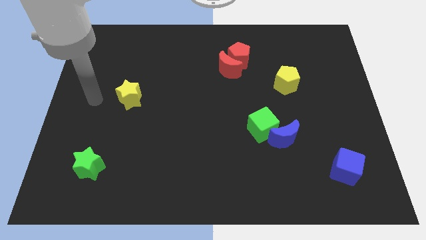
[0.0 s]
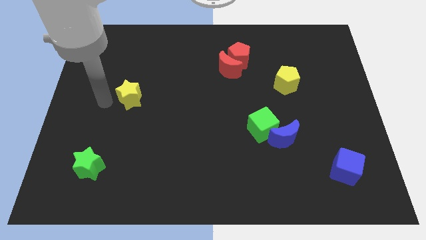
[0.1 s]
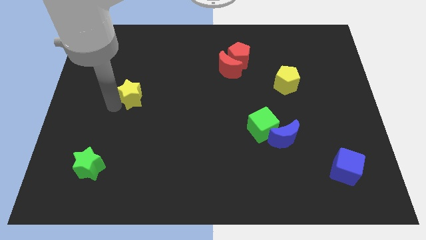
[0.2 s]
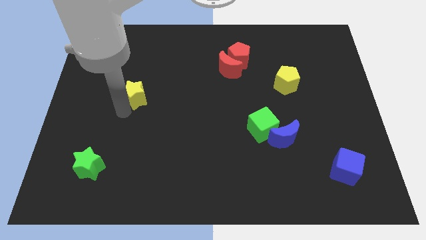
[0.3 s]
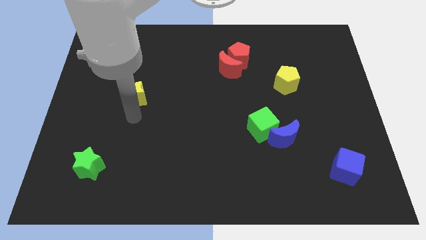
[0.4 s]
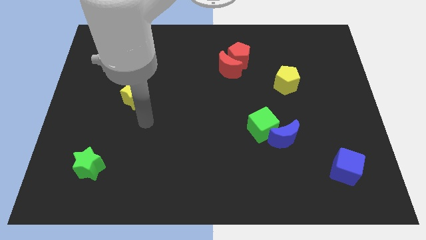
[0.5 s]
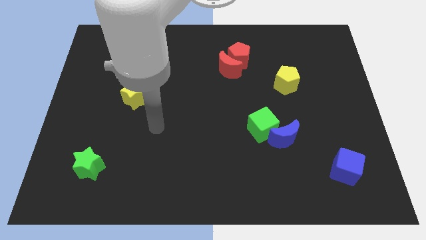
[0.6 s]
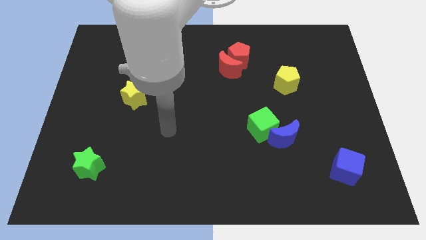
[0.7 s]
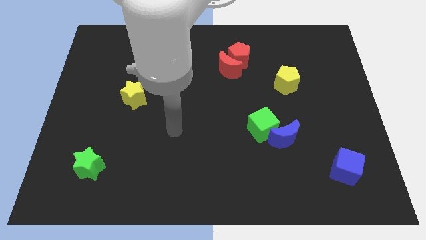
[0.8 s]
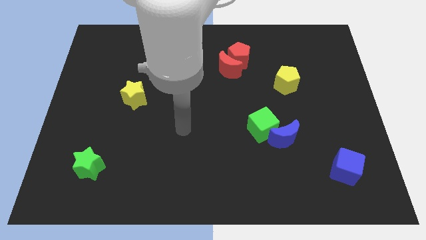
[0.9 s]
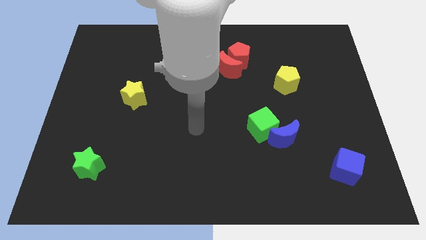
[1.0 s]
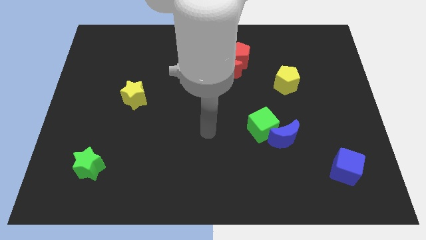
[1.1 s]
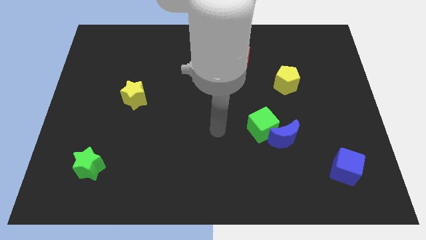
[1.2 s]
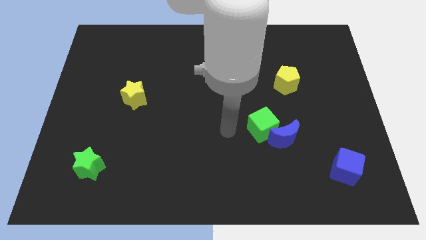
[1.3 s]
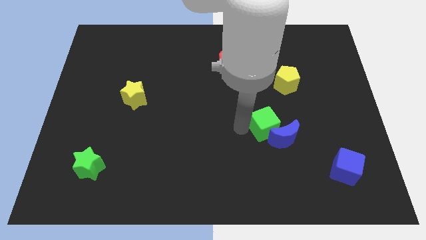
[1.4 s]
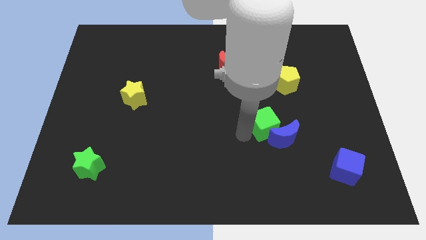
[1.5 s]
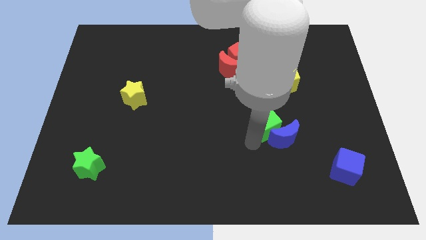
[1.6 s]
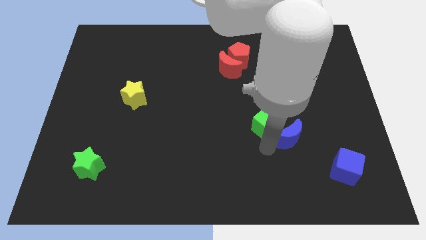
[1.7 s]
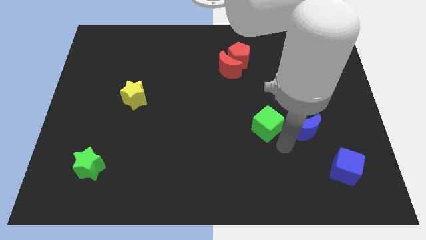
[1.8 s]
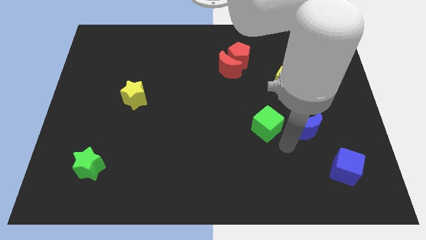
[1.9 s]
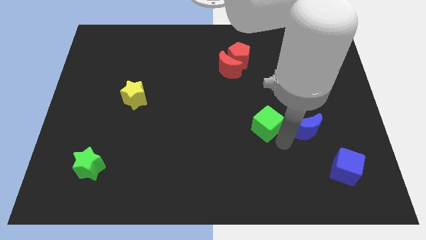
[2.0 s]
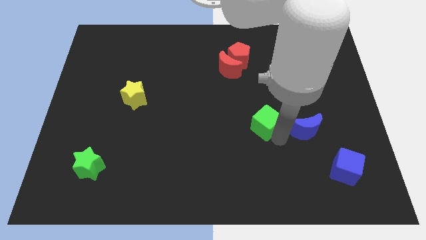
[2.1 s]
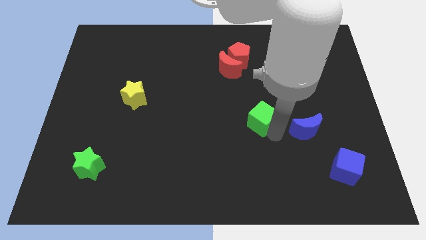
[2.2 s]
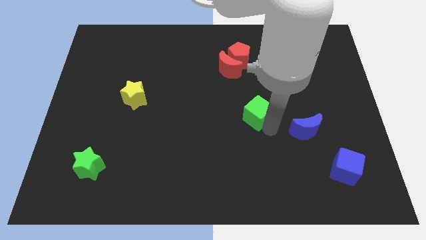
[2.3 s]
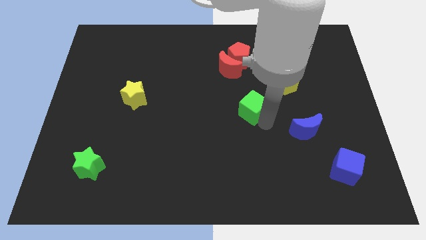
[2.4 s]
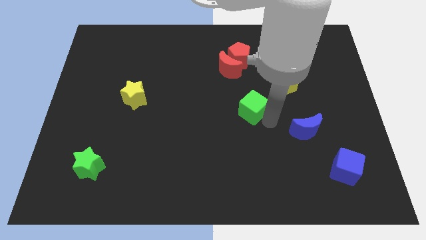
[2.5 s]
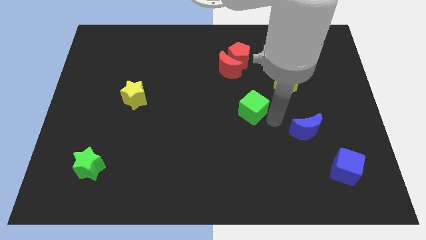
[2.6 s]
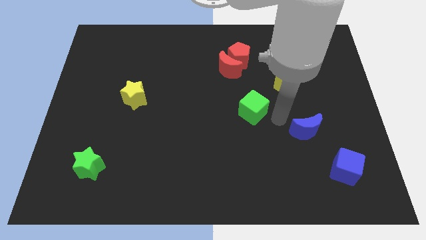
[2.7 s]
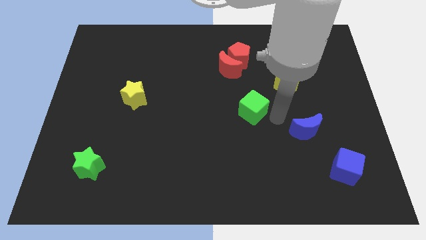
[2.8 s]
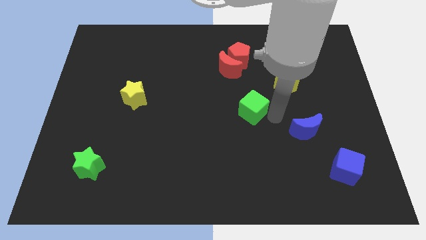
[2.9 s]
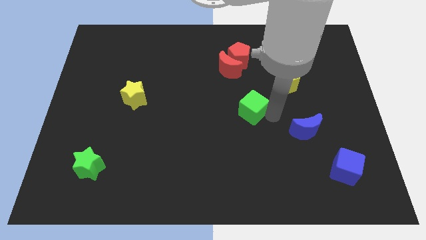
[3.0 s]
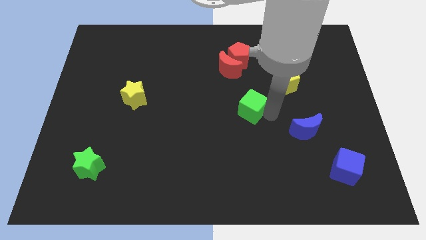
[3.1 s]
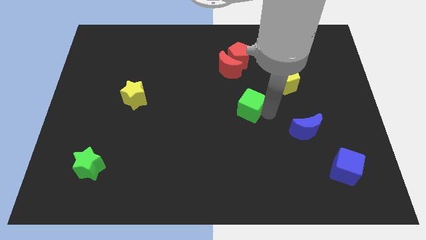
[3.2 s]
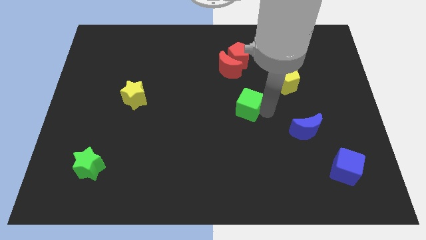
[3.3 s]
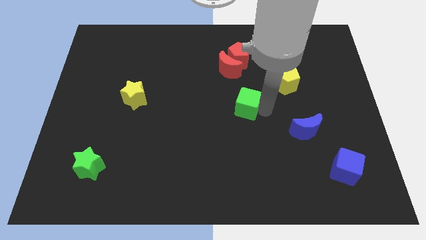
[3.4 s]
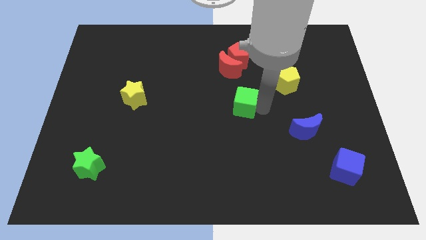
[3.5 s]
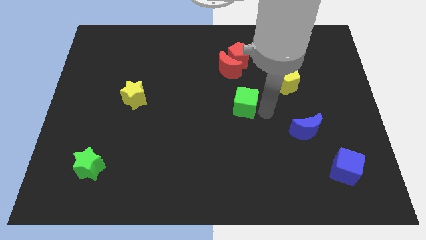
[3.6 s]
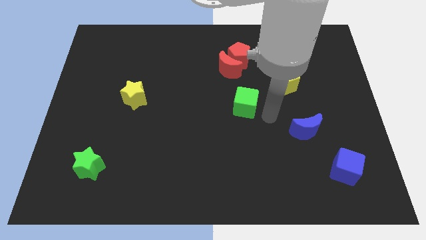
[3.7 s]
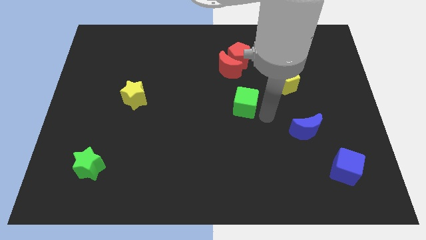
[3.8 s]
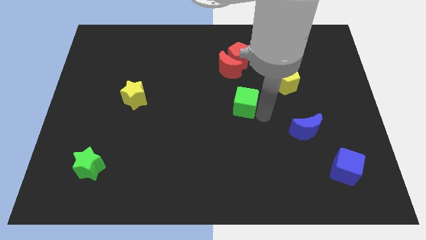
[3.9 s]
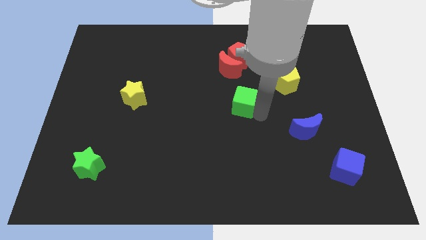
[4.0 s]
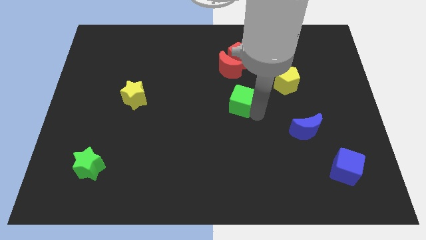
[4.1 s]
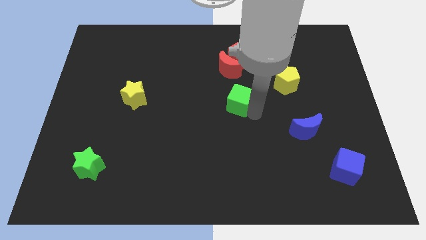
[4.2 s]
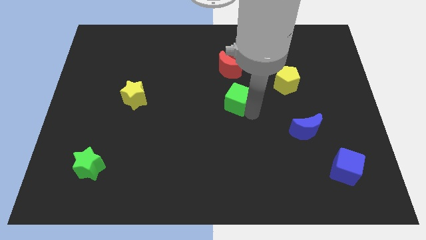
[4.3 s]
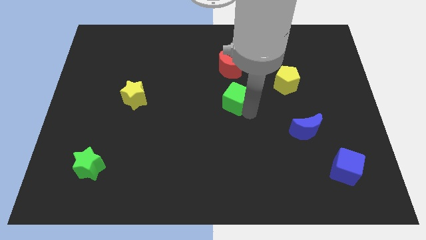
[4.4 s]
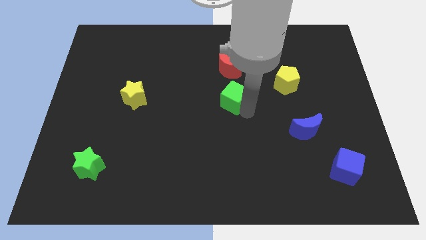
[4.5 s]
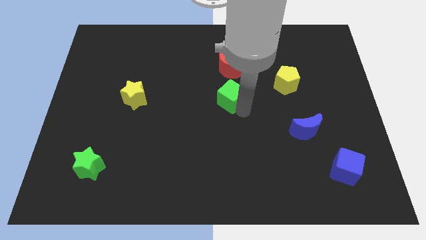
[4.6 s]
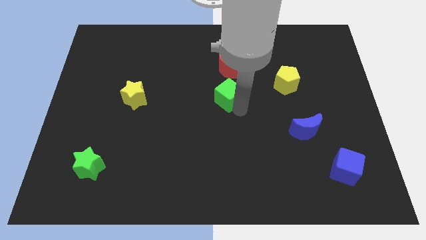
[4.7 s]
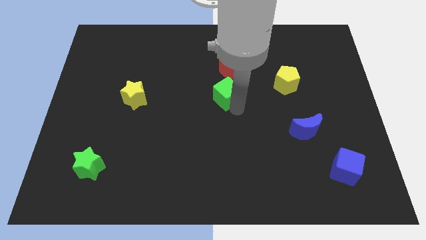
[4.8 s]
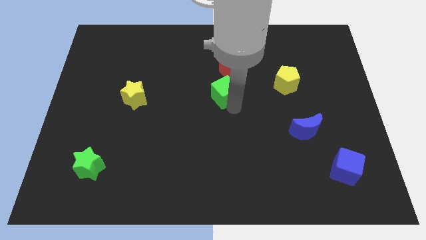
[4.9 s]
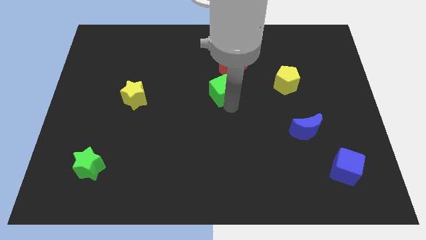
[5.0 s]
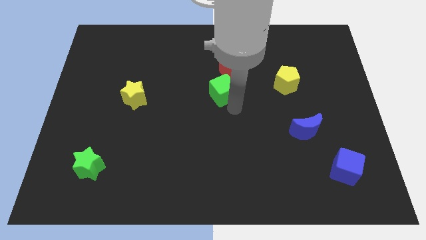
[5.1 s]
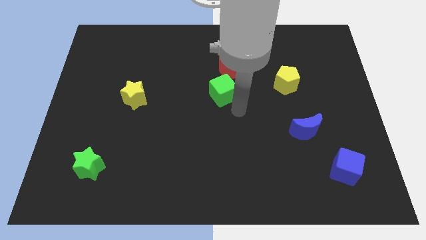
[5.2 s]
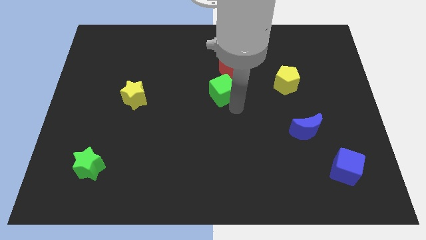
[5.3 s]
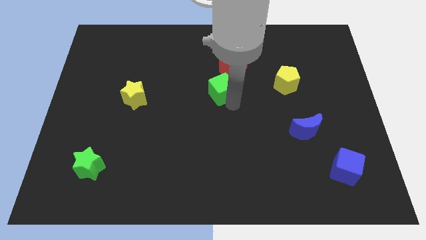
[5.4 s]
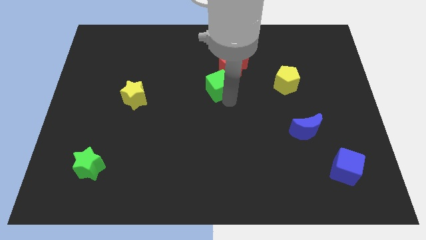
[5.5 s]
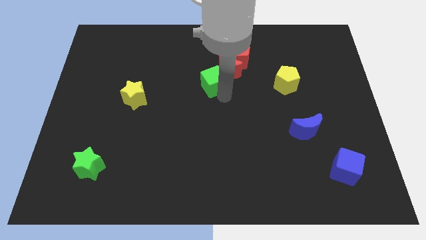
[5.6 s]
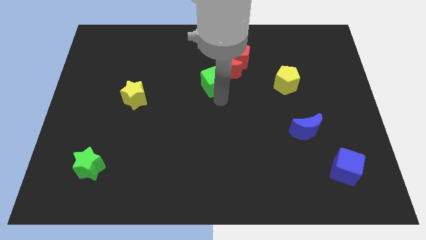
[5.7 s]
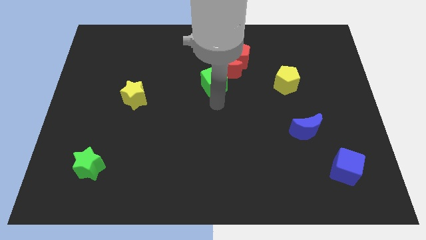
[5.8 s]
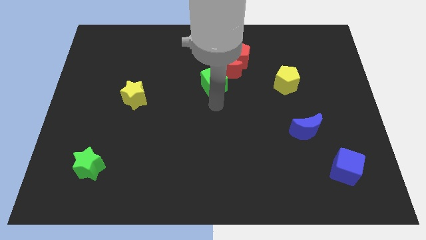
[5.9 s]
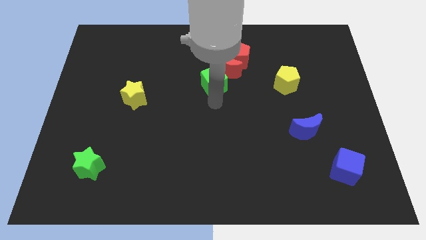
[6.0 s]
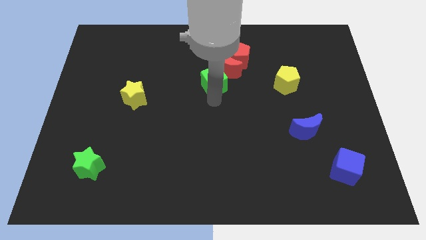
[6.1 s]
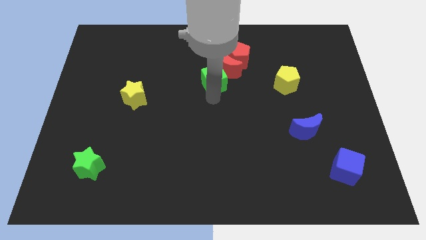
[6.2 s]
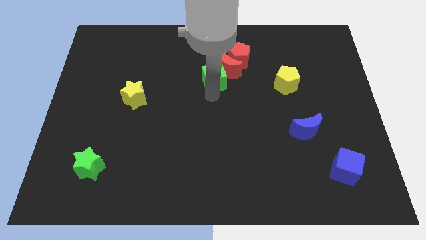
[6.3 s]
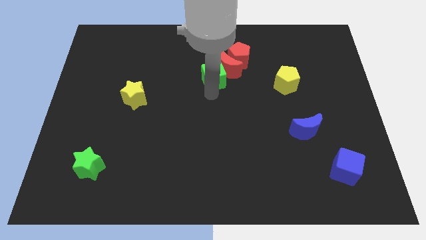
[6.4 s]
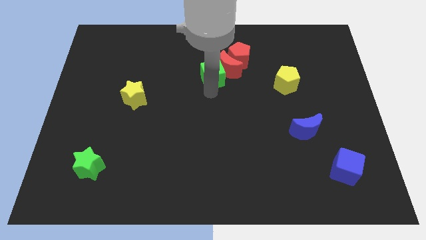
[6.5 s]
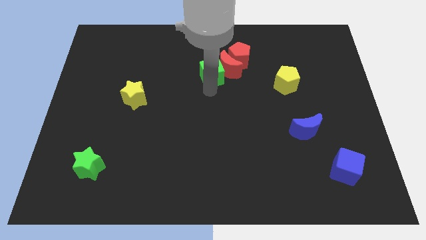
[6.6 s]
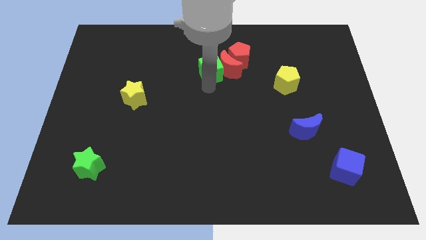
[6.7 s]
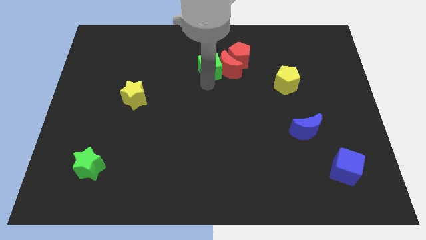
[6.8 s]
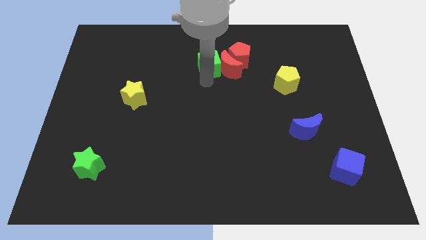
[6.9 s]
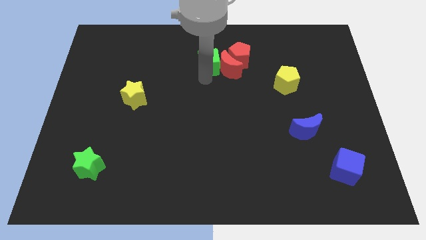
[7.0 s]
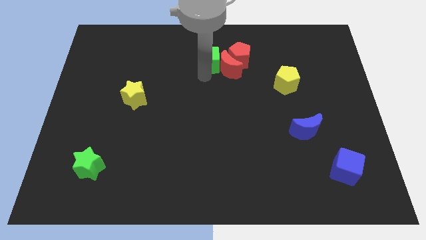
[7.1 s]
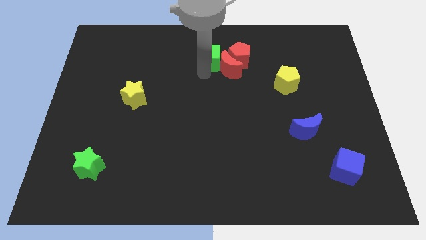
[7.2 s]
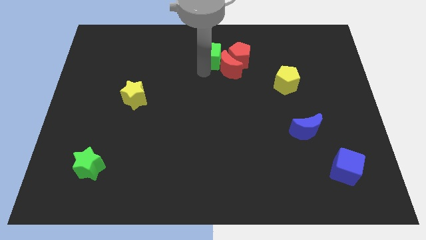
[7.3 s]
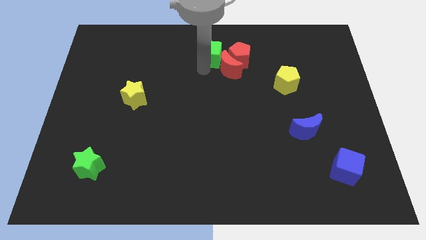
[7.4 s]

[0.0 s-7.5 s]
move the green cube to the top
